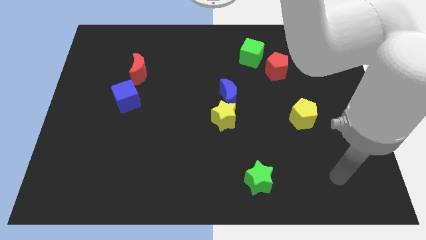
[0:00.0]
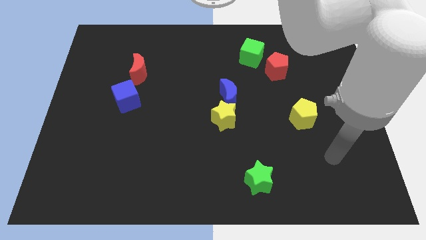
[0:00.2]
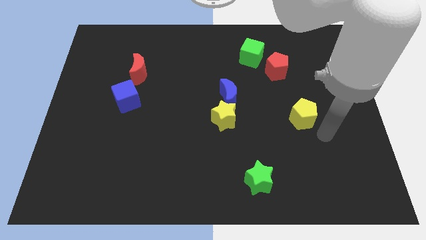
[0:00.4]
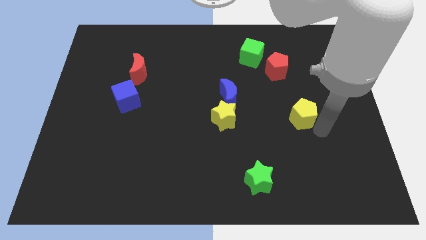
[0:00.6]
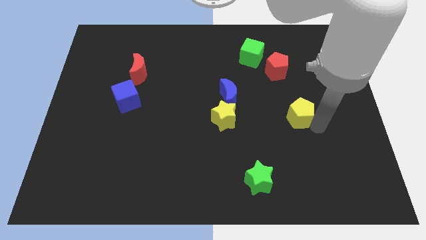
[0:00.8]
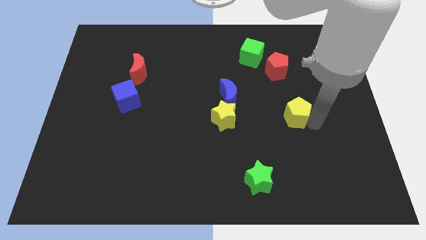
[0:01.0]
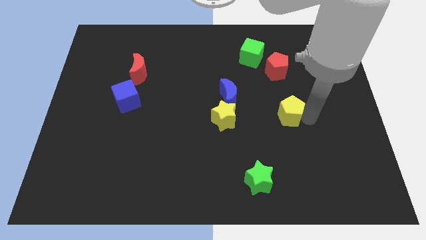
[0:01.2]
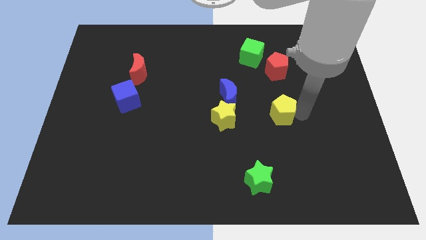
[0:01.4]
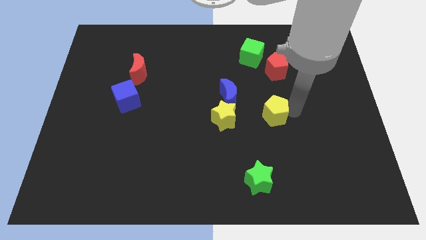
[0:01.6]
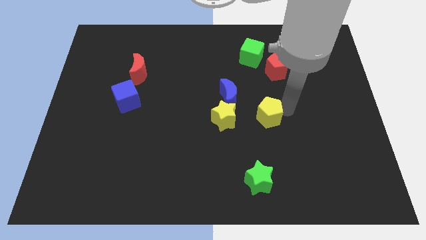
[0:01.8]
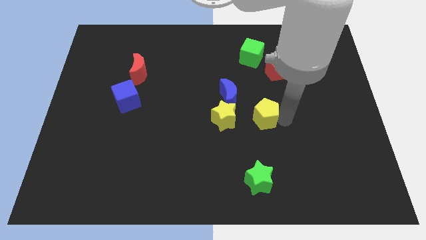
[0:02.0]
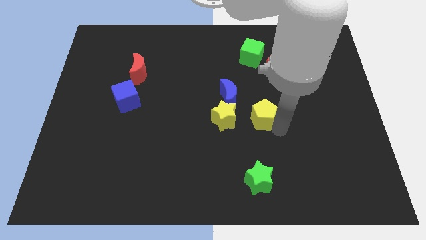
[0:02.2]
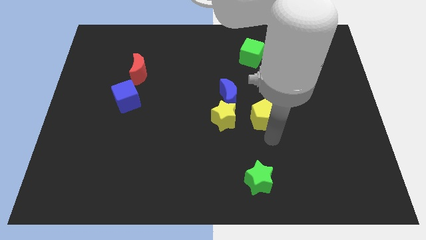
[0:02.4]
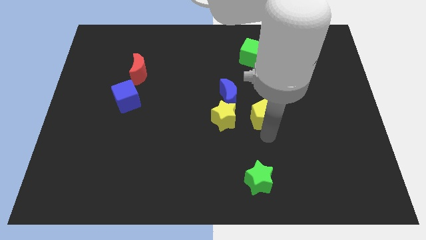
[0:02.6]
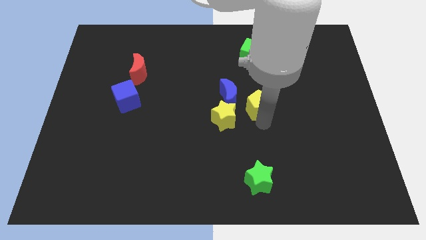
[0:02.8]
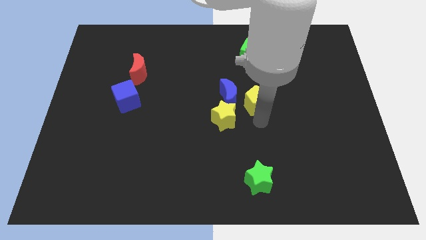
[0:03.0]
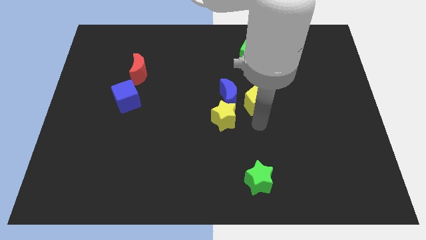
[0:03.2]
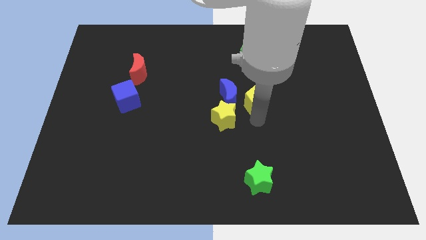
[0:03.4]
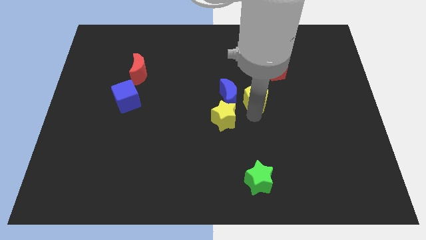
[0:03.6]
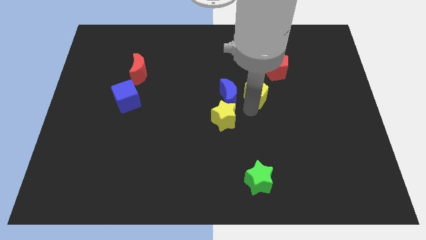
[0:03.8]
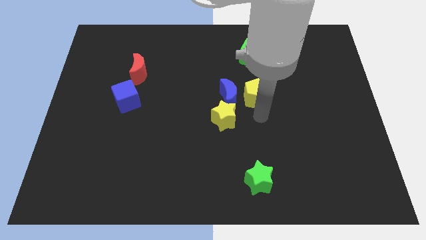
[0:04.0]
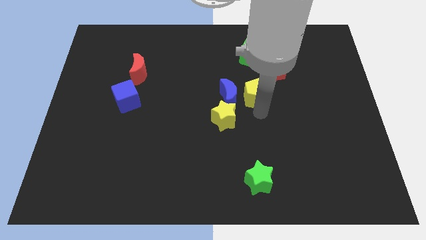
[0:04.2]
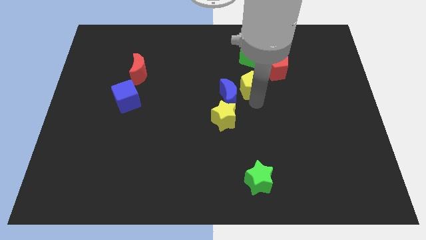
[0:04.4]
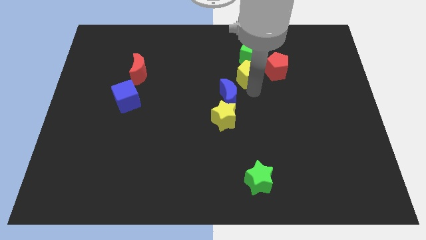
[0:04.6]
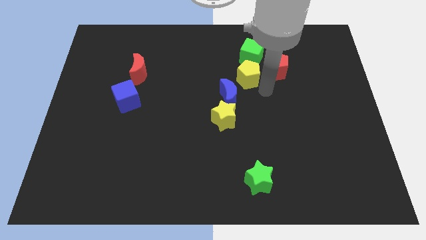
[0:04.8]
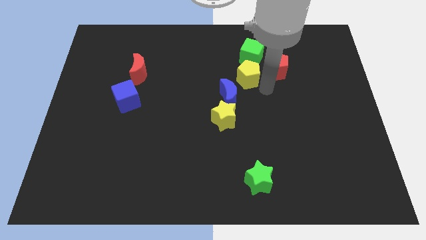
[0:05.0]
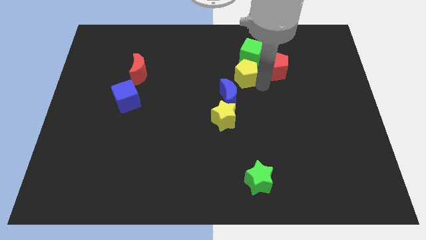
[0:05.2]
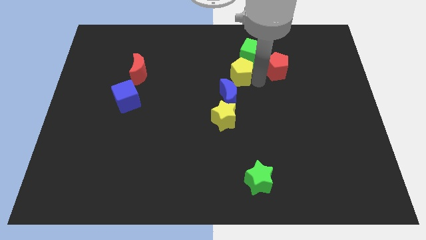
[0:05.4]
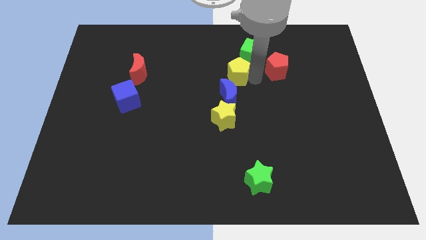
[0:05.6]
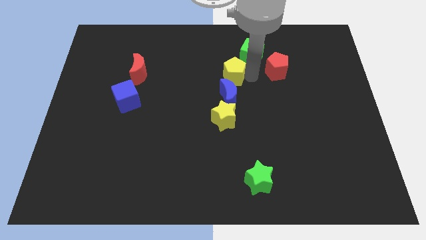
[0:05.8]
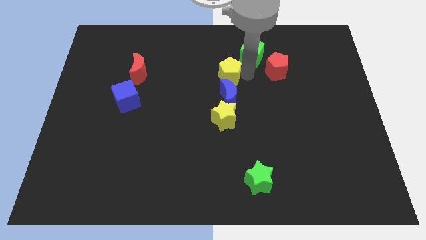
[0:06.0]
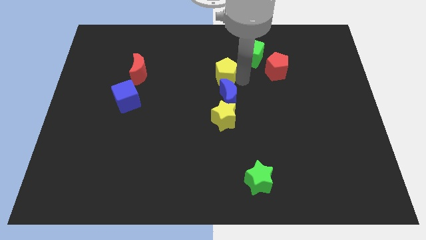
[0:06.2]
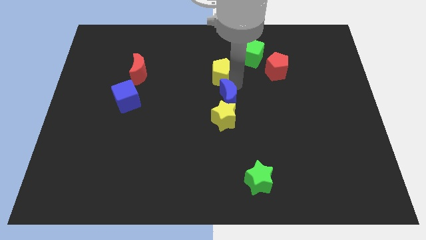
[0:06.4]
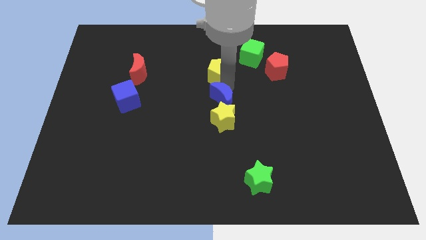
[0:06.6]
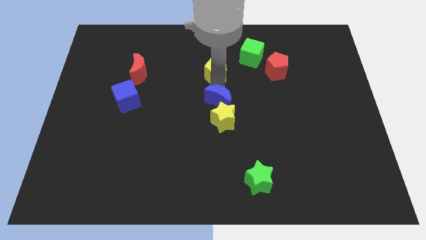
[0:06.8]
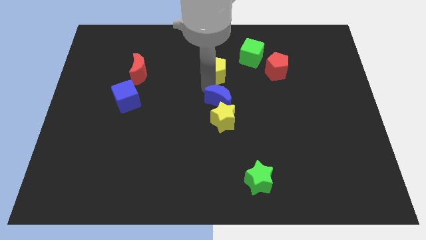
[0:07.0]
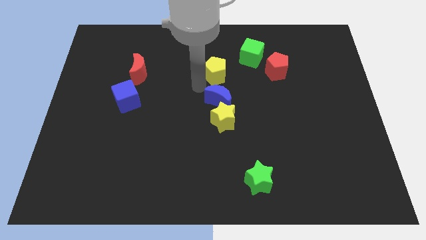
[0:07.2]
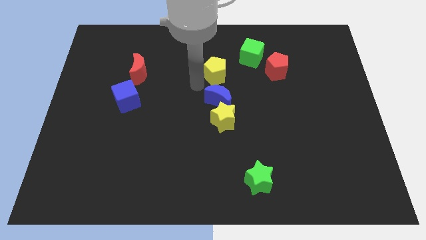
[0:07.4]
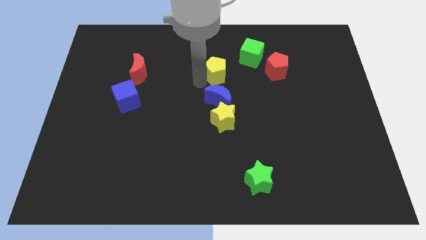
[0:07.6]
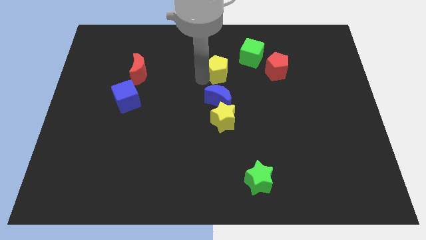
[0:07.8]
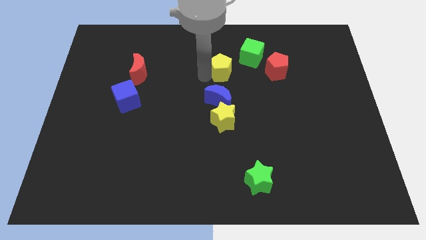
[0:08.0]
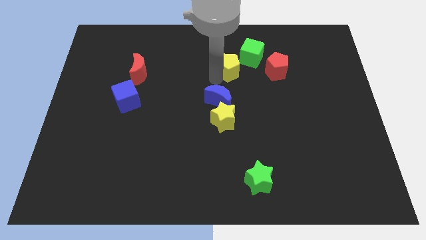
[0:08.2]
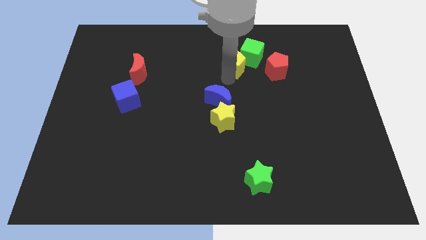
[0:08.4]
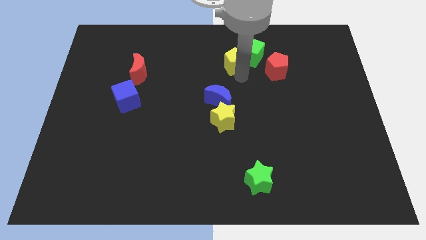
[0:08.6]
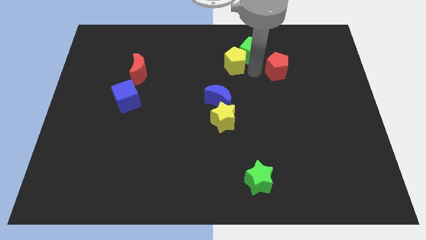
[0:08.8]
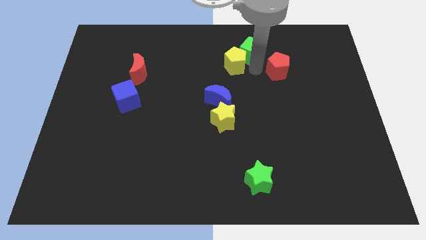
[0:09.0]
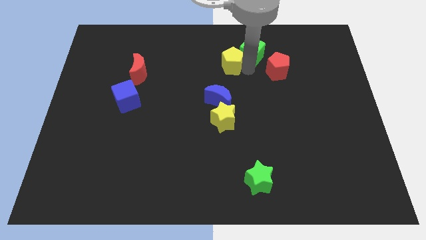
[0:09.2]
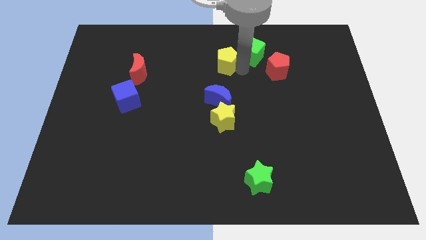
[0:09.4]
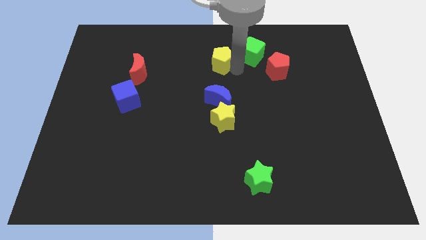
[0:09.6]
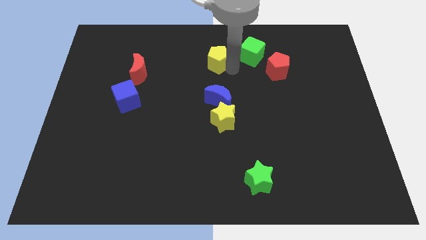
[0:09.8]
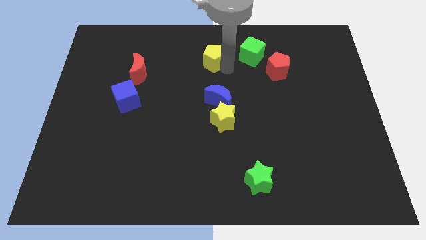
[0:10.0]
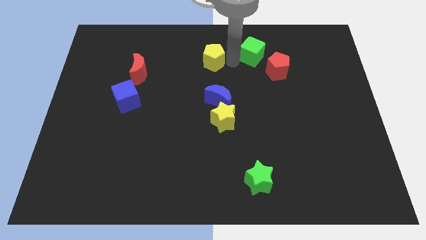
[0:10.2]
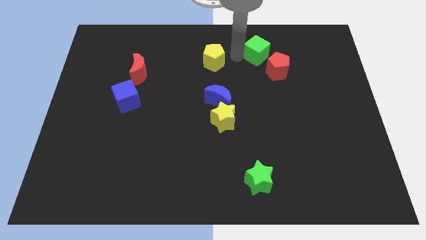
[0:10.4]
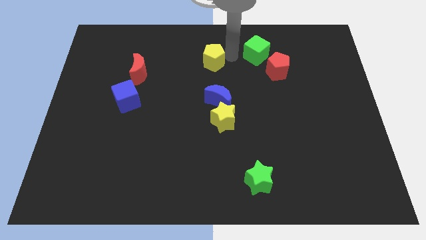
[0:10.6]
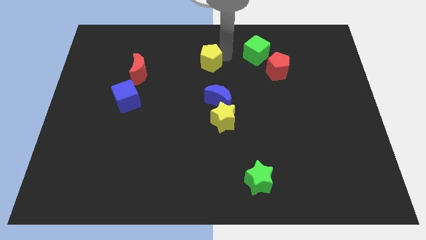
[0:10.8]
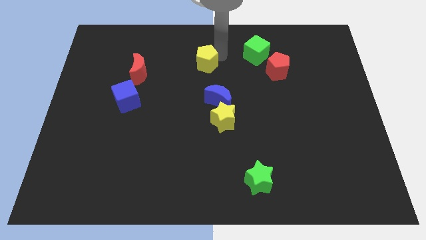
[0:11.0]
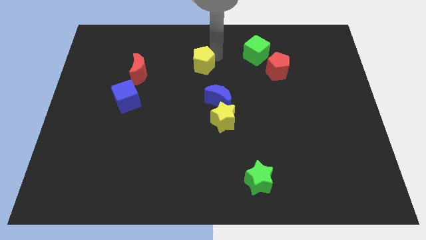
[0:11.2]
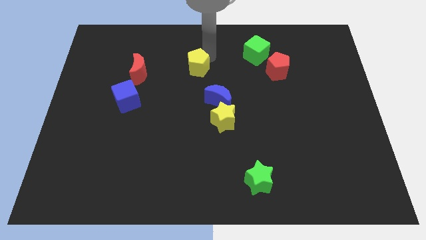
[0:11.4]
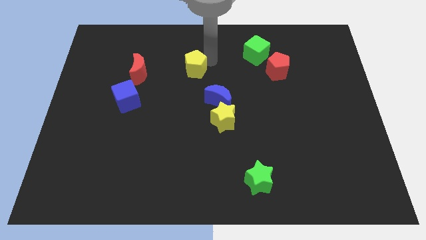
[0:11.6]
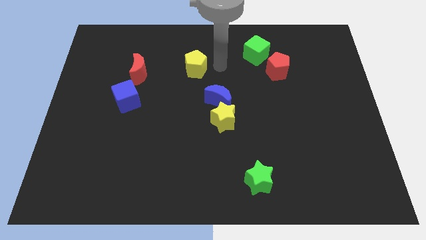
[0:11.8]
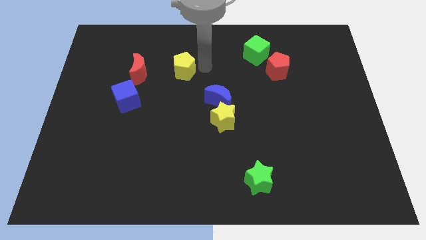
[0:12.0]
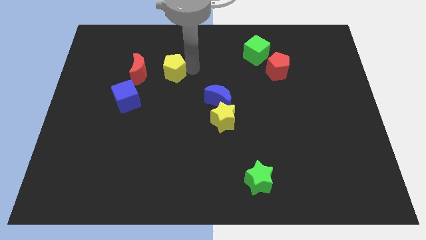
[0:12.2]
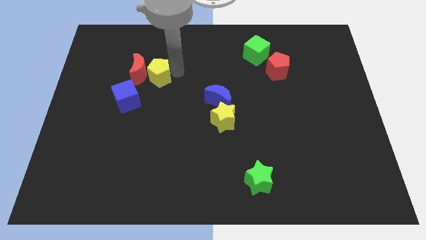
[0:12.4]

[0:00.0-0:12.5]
move the yellow pentagon close to the red moon

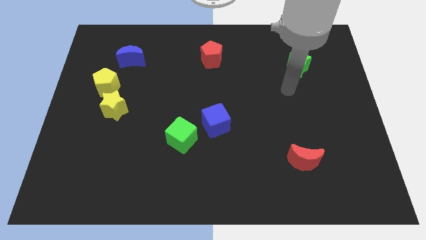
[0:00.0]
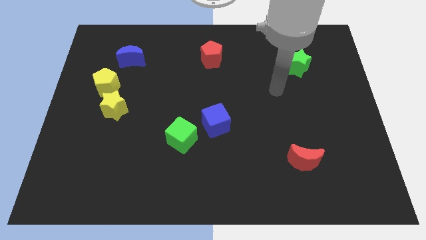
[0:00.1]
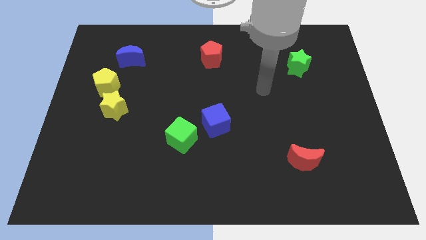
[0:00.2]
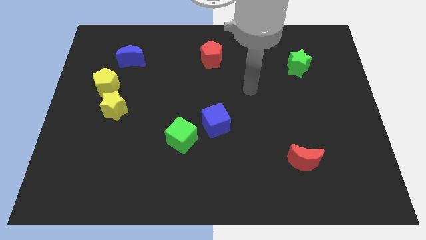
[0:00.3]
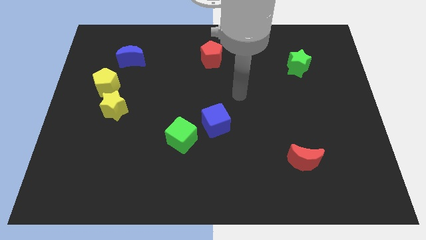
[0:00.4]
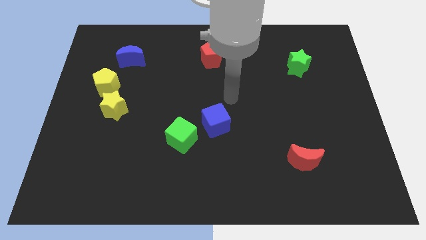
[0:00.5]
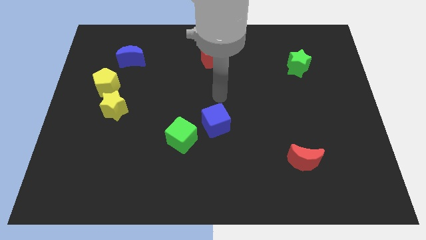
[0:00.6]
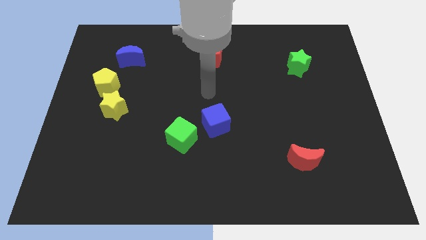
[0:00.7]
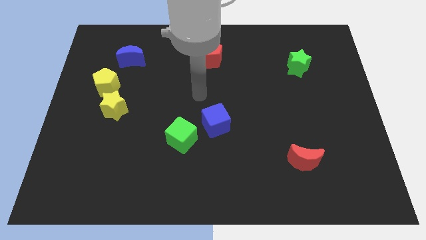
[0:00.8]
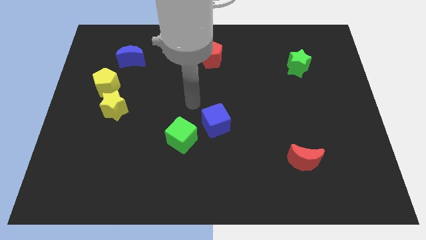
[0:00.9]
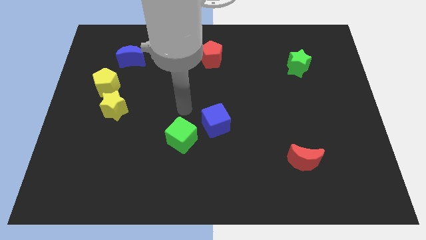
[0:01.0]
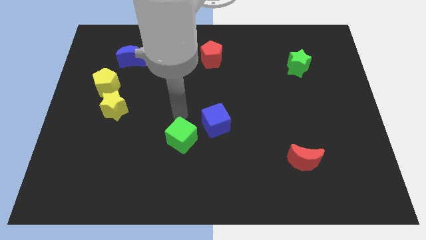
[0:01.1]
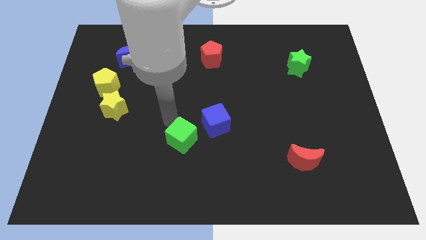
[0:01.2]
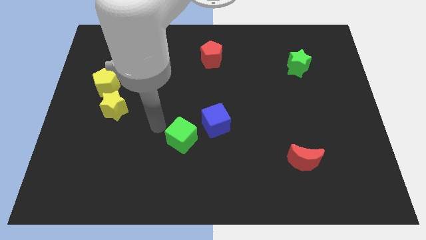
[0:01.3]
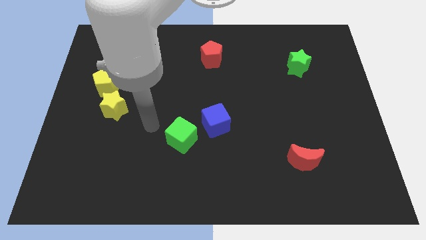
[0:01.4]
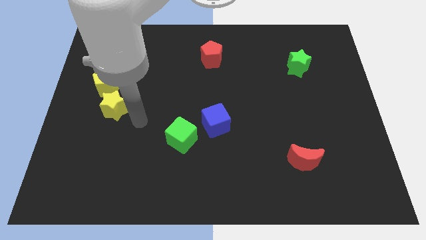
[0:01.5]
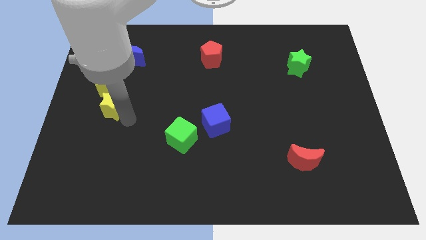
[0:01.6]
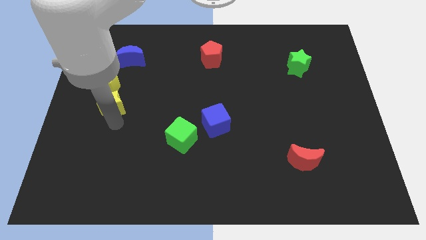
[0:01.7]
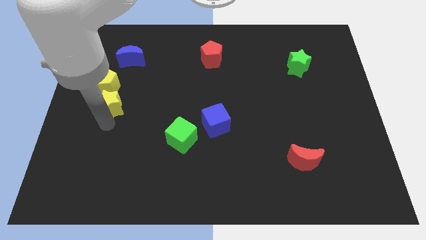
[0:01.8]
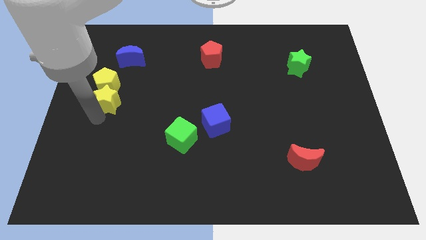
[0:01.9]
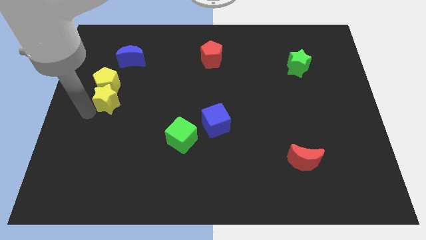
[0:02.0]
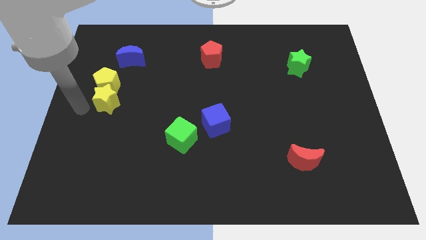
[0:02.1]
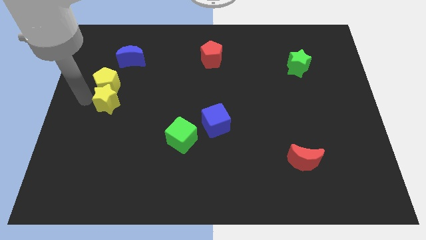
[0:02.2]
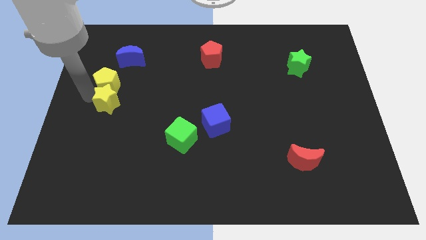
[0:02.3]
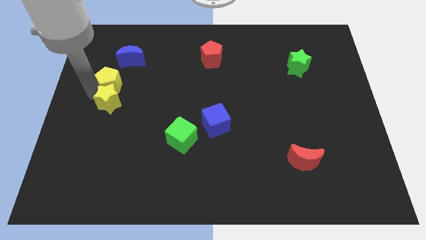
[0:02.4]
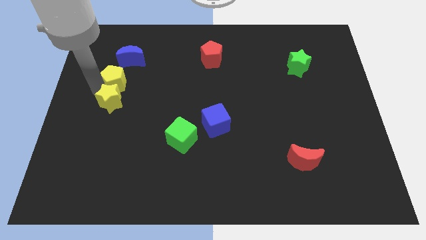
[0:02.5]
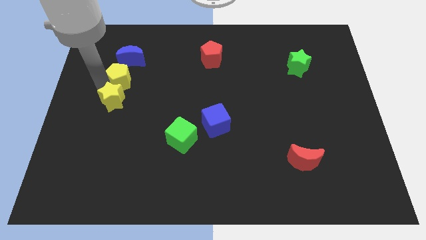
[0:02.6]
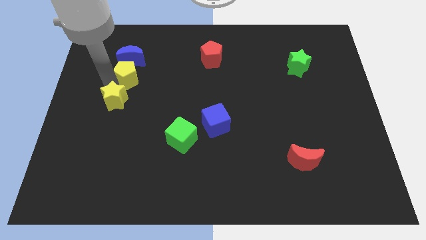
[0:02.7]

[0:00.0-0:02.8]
push the yellow pentagon next to the blue moon
